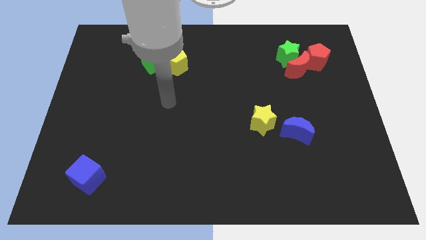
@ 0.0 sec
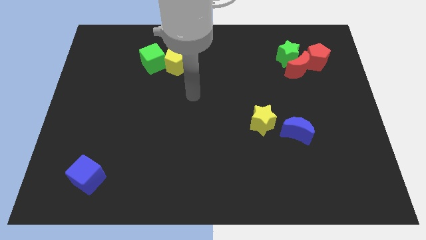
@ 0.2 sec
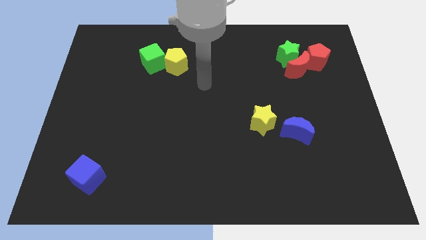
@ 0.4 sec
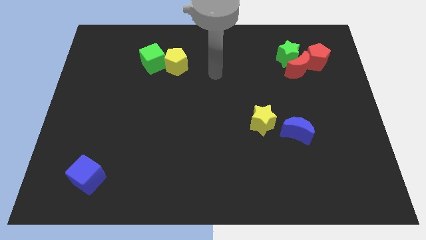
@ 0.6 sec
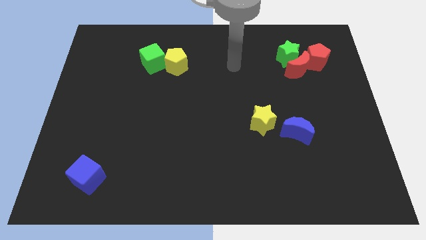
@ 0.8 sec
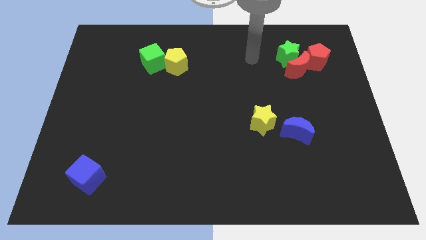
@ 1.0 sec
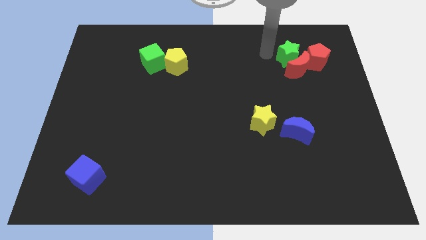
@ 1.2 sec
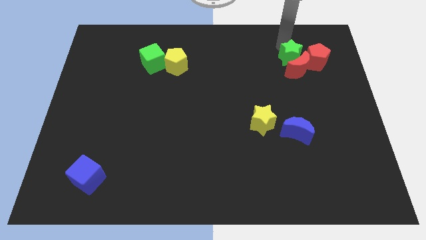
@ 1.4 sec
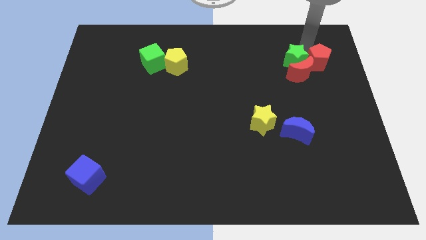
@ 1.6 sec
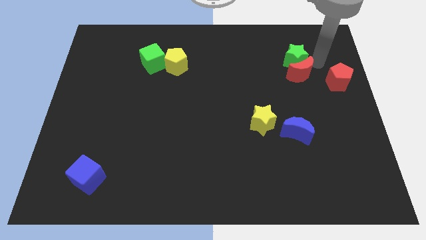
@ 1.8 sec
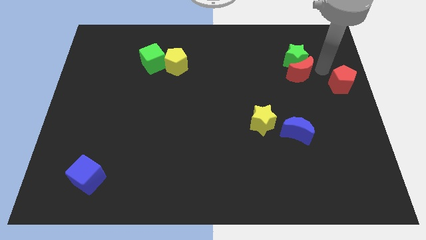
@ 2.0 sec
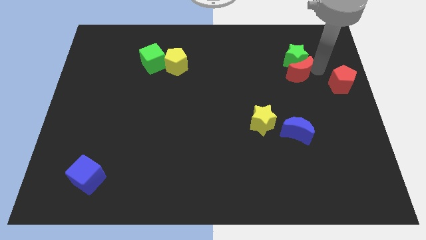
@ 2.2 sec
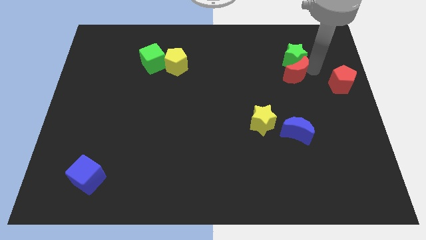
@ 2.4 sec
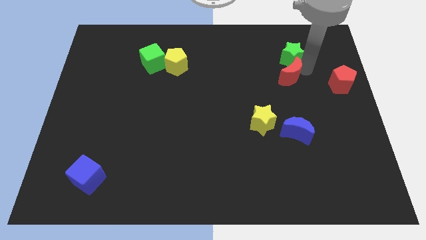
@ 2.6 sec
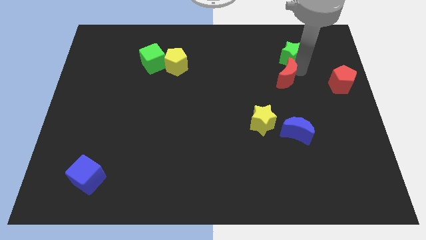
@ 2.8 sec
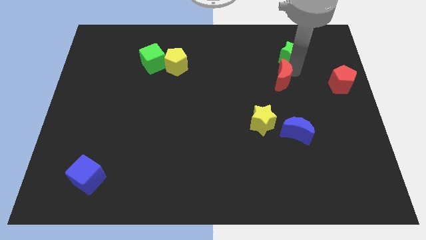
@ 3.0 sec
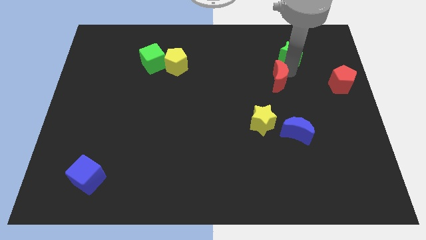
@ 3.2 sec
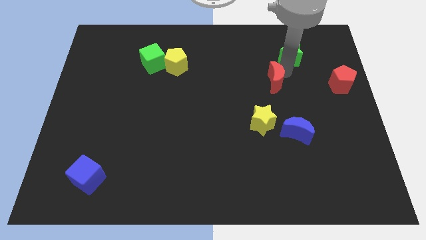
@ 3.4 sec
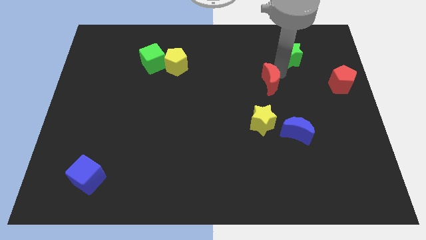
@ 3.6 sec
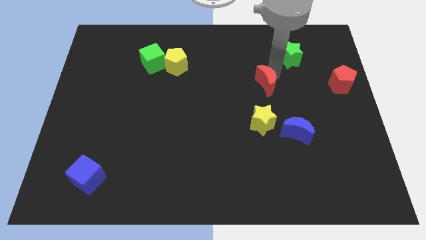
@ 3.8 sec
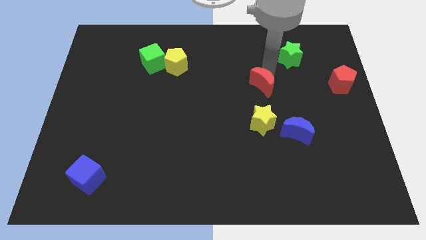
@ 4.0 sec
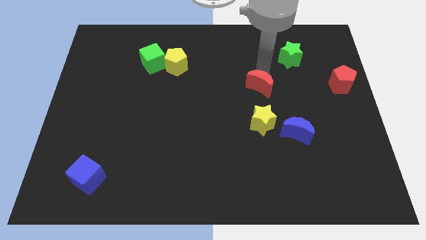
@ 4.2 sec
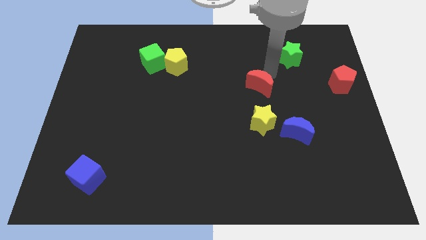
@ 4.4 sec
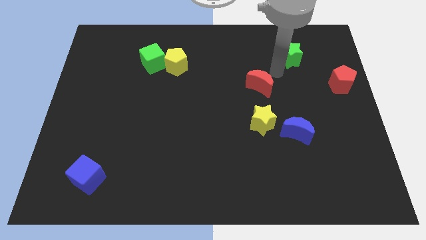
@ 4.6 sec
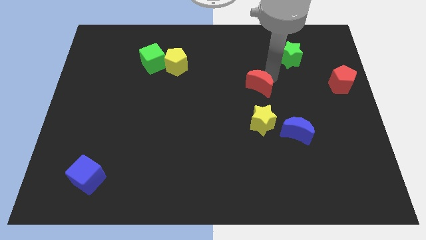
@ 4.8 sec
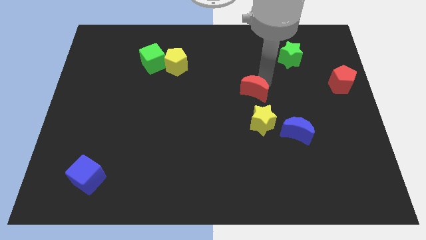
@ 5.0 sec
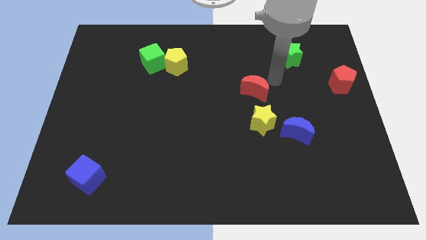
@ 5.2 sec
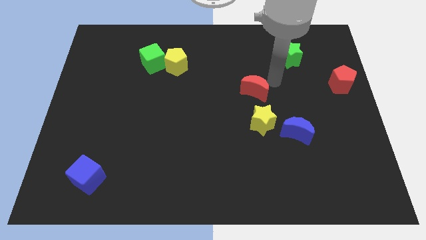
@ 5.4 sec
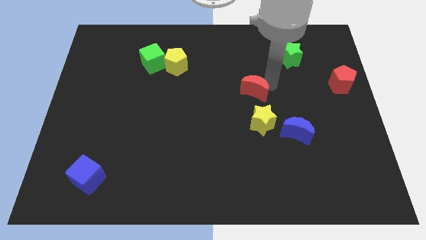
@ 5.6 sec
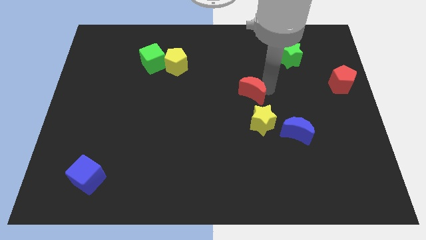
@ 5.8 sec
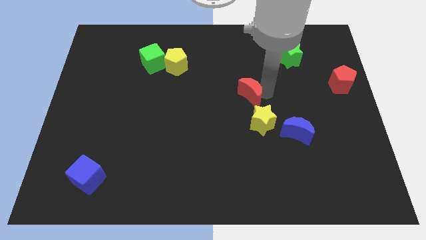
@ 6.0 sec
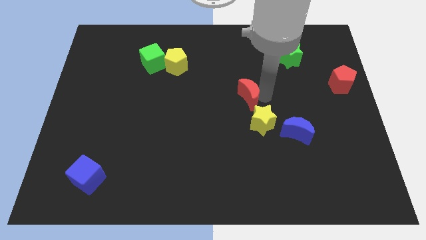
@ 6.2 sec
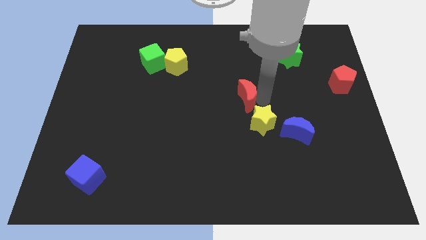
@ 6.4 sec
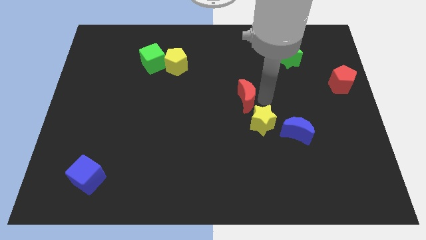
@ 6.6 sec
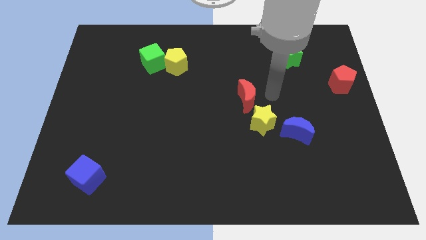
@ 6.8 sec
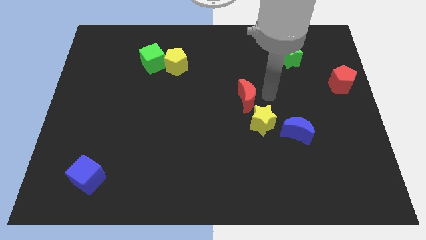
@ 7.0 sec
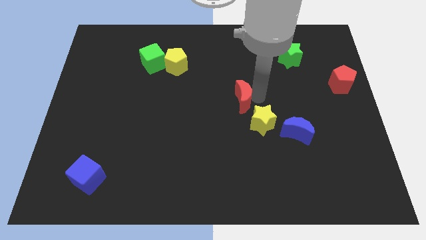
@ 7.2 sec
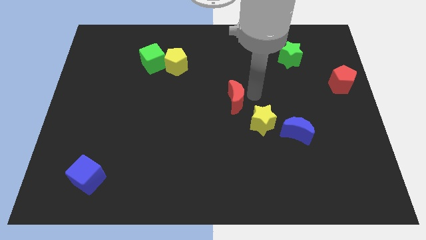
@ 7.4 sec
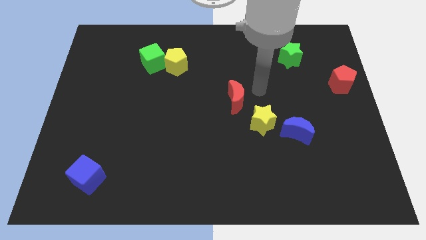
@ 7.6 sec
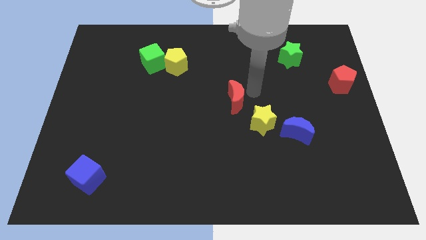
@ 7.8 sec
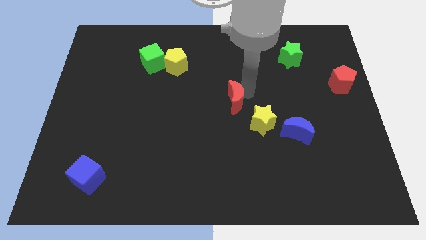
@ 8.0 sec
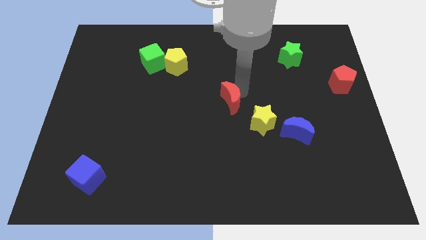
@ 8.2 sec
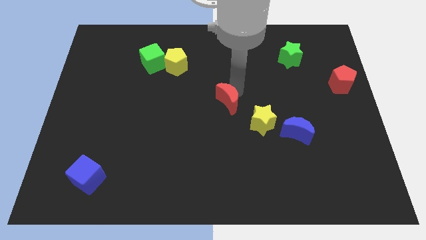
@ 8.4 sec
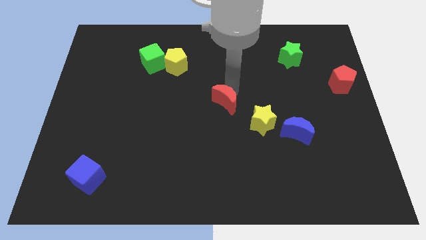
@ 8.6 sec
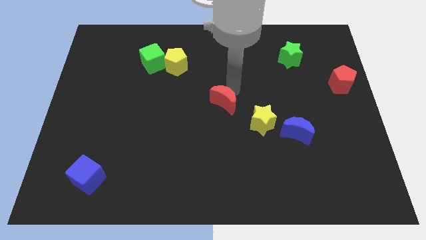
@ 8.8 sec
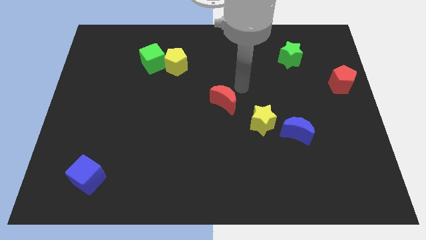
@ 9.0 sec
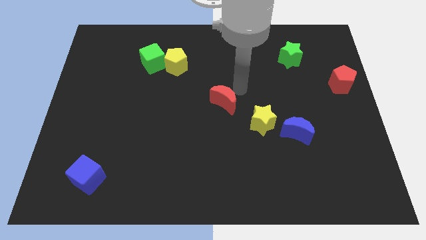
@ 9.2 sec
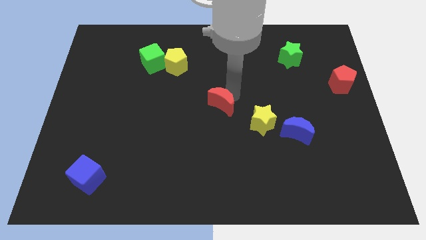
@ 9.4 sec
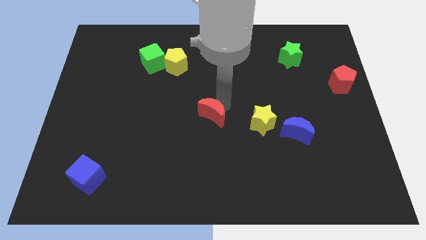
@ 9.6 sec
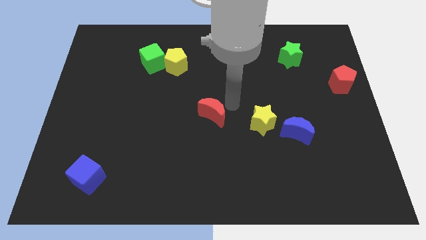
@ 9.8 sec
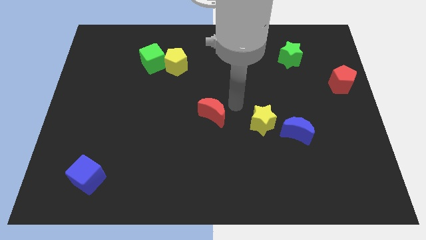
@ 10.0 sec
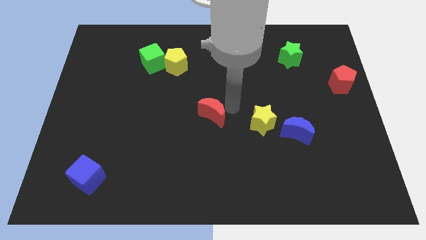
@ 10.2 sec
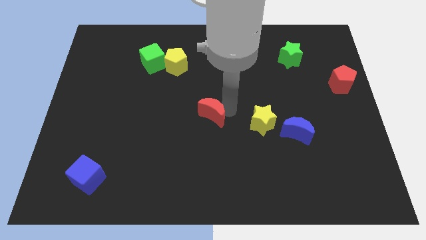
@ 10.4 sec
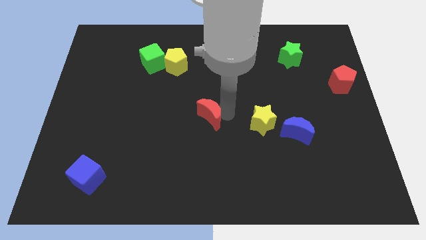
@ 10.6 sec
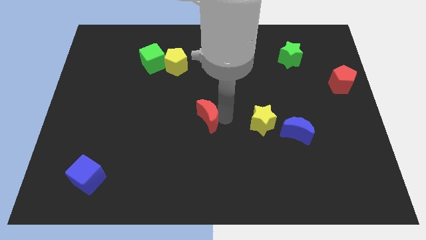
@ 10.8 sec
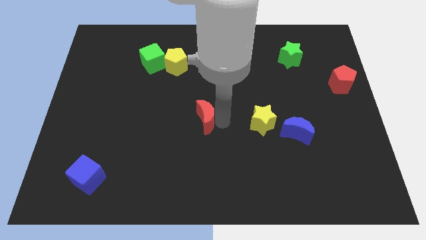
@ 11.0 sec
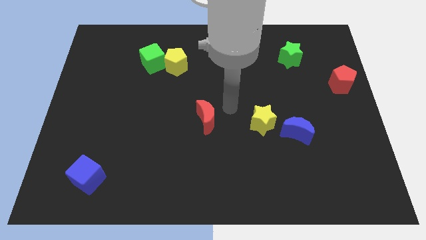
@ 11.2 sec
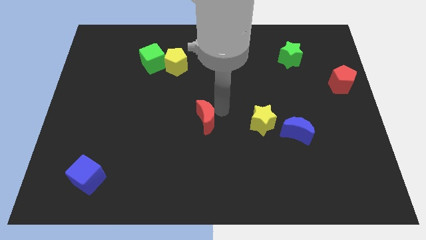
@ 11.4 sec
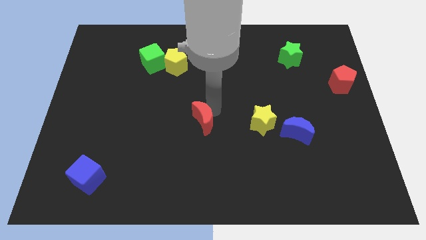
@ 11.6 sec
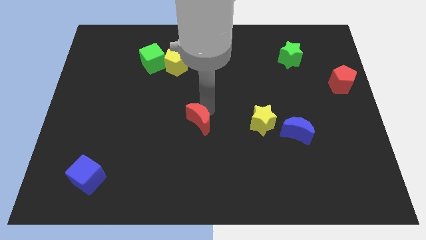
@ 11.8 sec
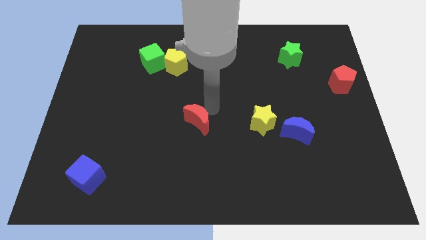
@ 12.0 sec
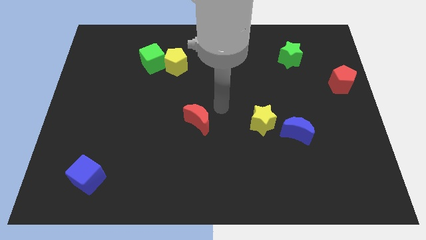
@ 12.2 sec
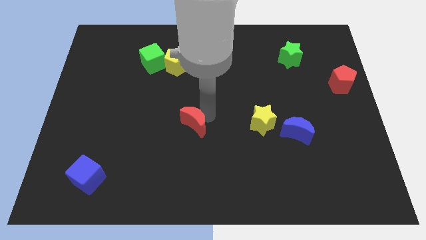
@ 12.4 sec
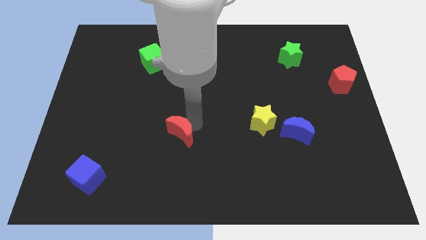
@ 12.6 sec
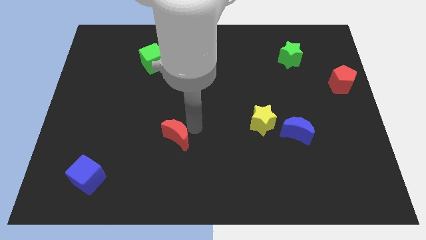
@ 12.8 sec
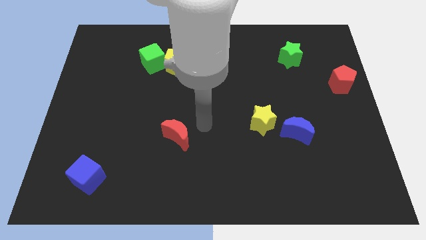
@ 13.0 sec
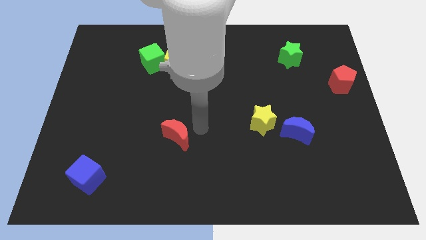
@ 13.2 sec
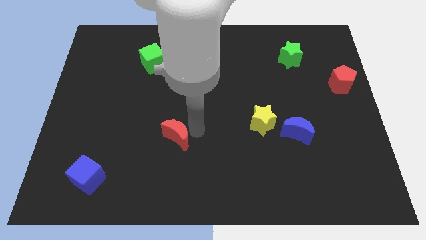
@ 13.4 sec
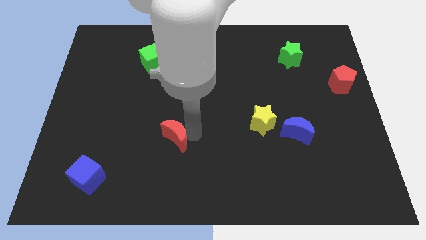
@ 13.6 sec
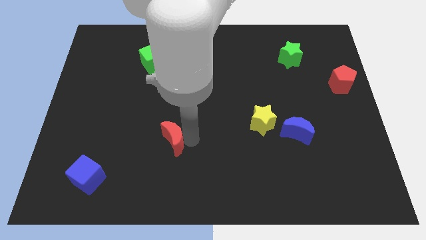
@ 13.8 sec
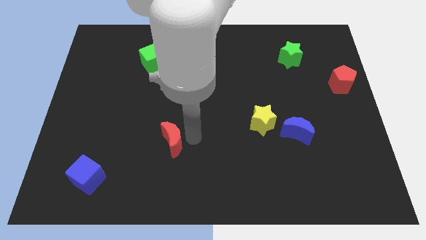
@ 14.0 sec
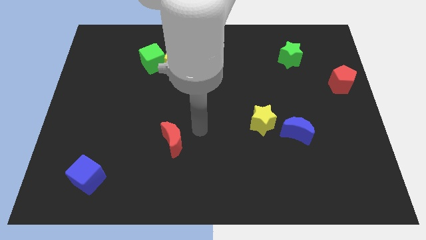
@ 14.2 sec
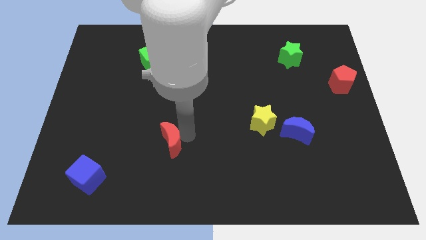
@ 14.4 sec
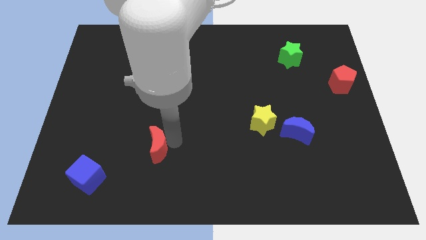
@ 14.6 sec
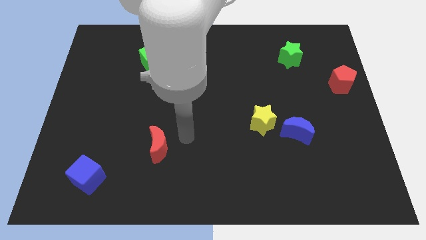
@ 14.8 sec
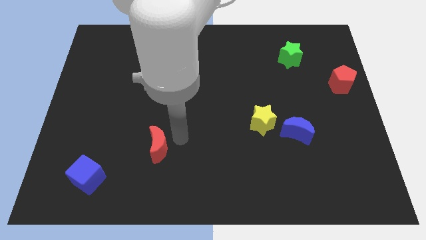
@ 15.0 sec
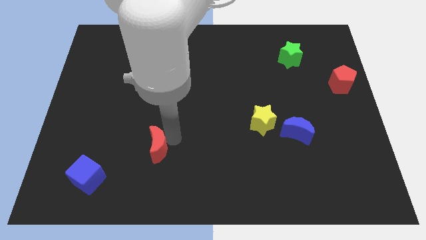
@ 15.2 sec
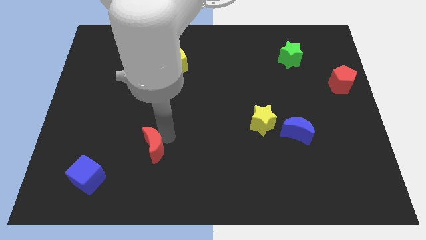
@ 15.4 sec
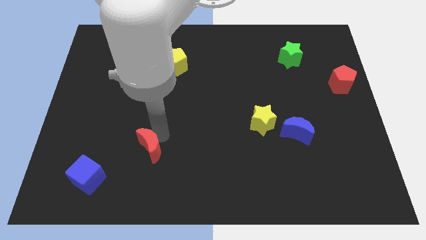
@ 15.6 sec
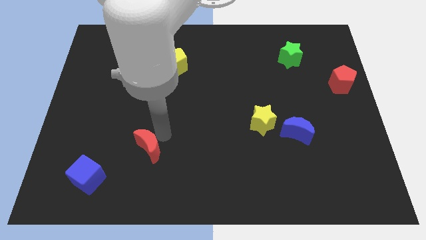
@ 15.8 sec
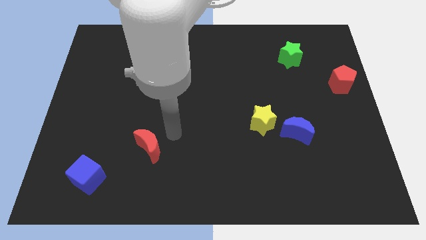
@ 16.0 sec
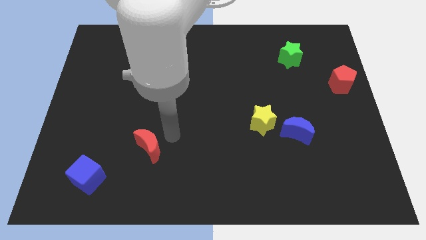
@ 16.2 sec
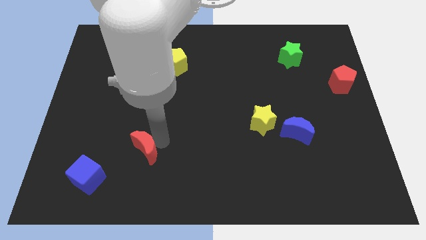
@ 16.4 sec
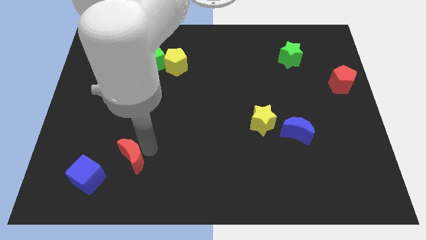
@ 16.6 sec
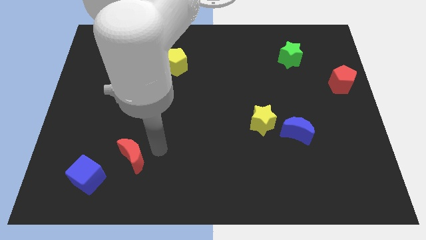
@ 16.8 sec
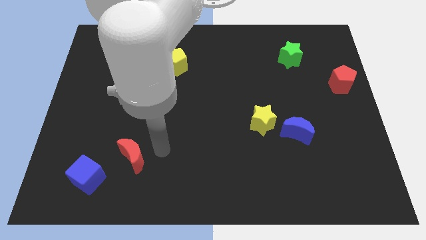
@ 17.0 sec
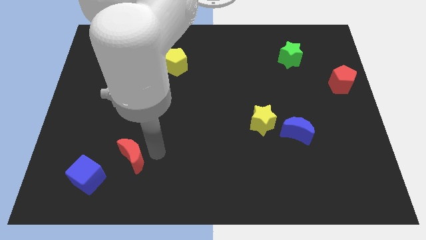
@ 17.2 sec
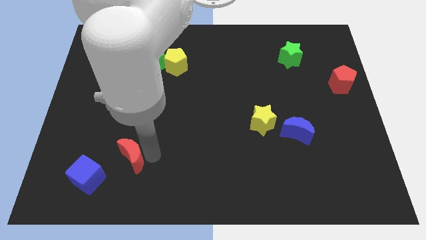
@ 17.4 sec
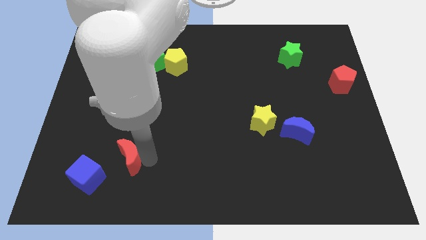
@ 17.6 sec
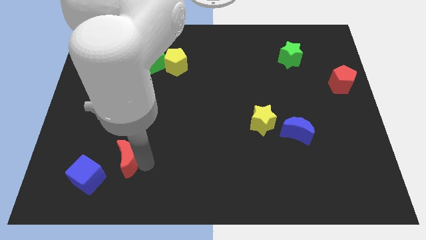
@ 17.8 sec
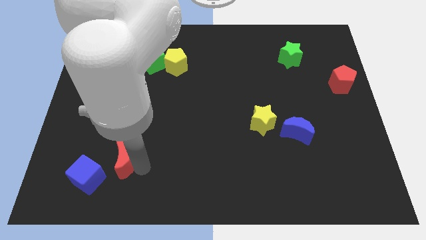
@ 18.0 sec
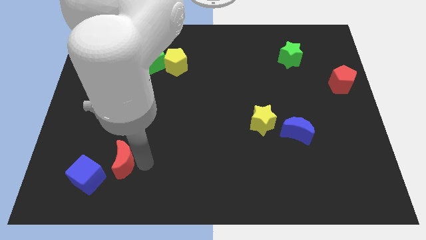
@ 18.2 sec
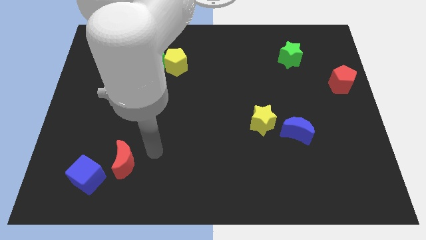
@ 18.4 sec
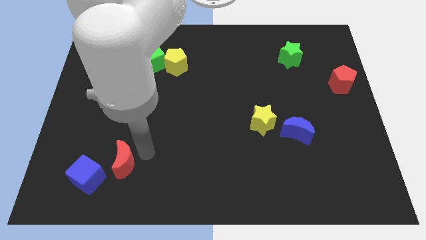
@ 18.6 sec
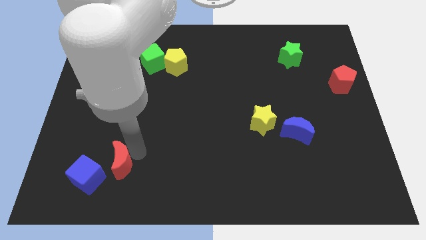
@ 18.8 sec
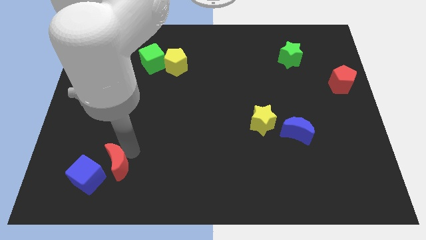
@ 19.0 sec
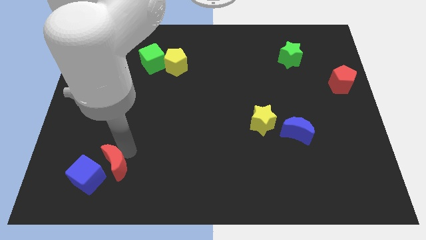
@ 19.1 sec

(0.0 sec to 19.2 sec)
push the red moon to the blue cube
